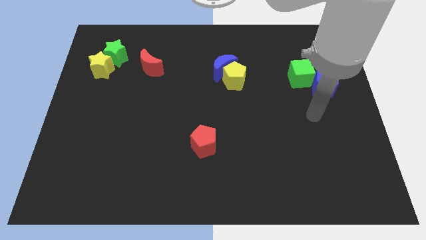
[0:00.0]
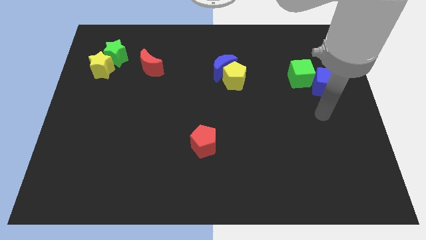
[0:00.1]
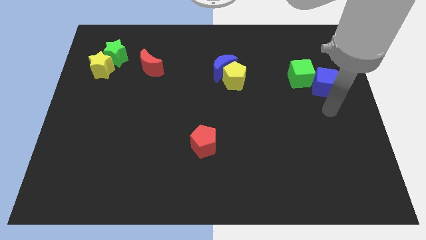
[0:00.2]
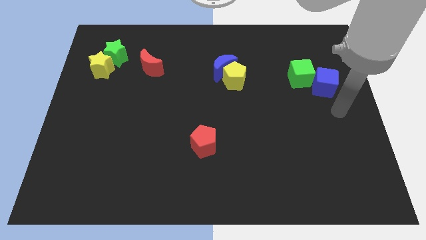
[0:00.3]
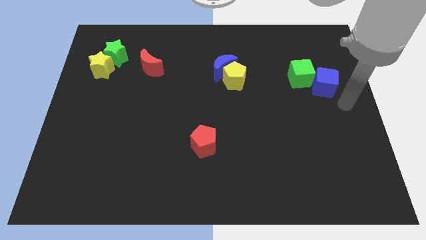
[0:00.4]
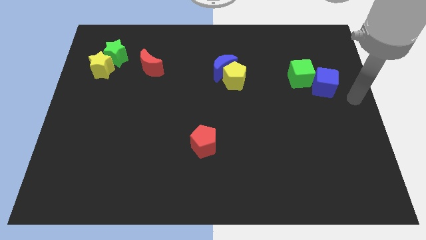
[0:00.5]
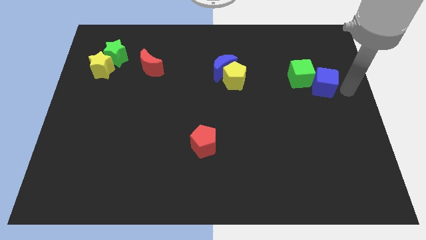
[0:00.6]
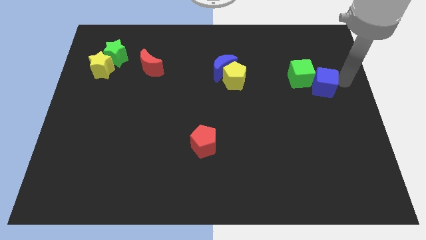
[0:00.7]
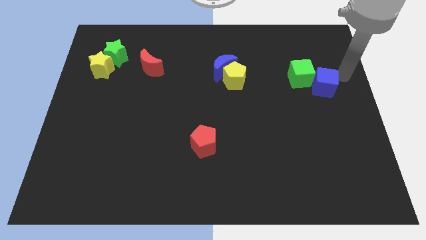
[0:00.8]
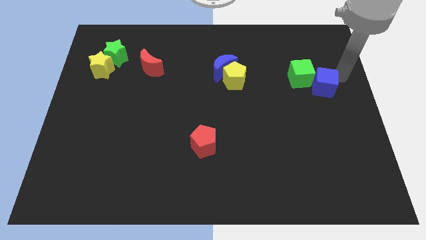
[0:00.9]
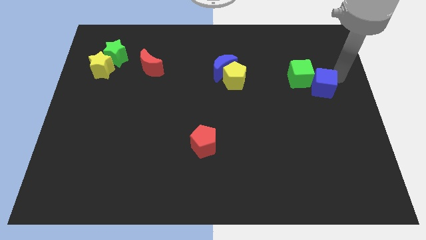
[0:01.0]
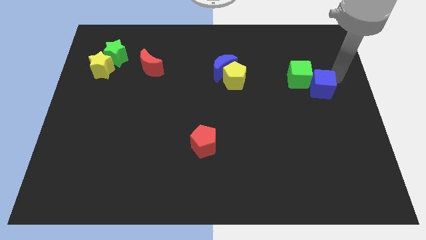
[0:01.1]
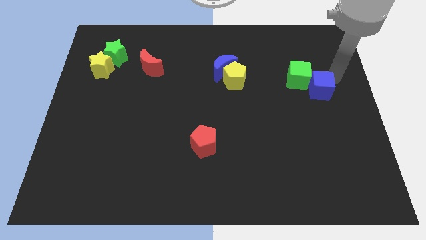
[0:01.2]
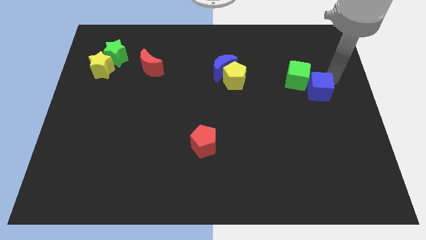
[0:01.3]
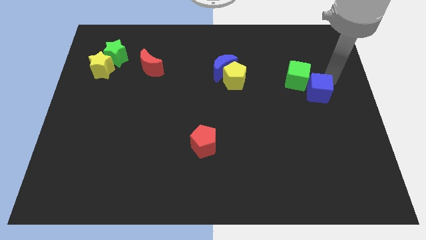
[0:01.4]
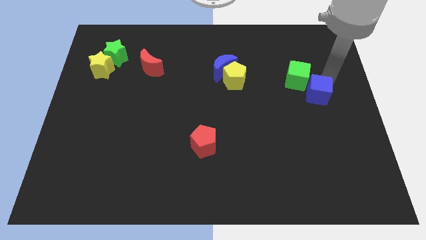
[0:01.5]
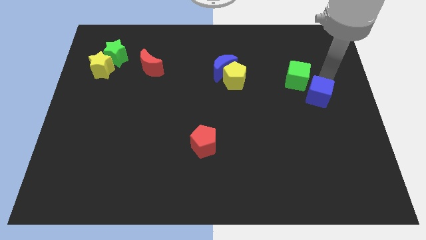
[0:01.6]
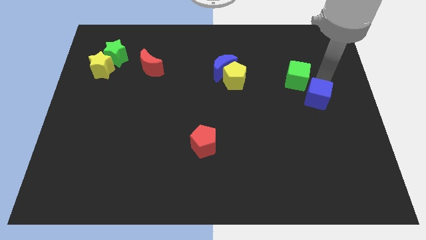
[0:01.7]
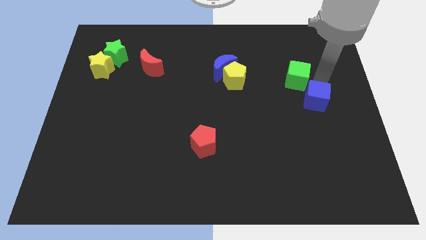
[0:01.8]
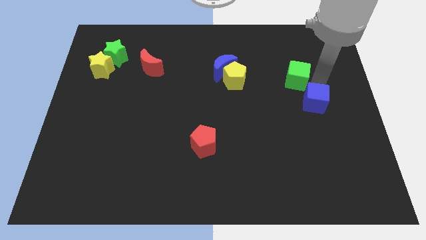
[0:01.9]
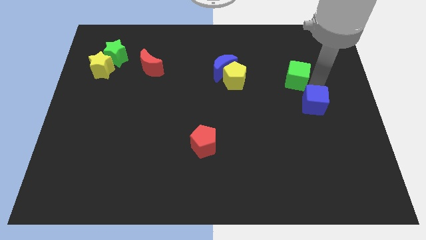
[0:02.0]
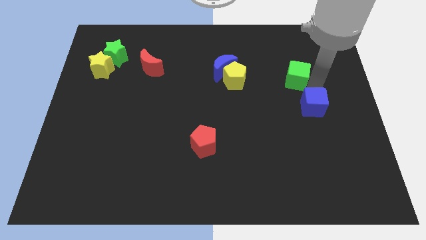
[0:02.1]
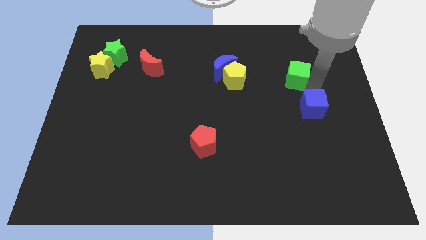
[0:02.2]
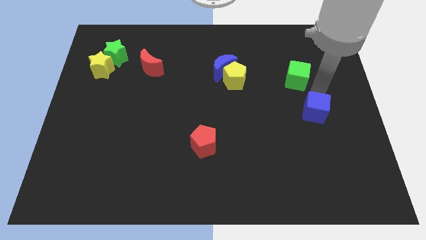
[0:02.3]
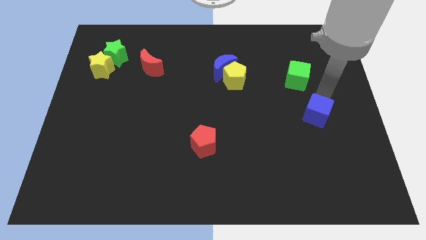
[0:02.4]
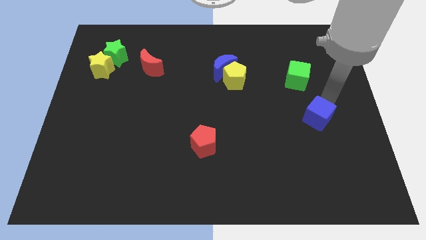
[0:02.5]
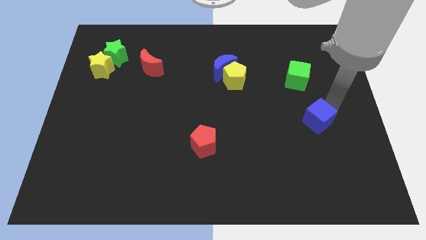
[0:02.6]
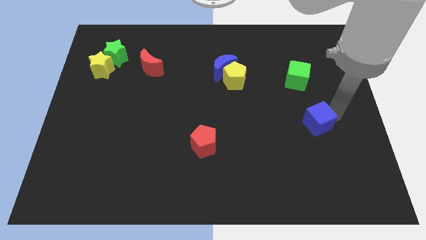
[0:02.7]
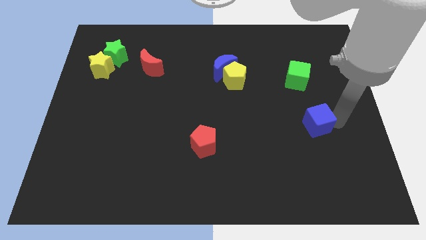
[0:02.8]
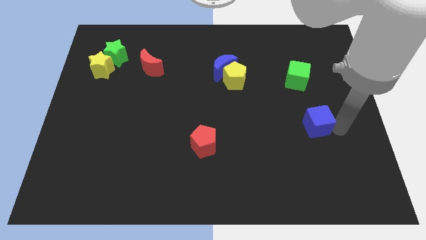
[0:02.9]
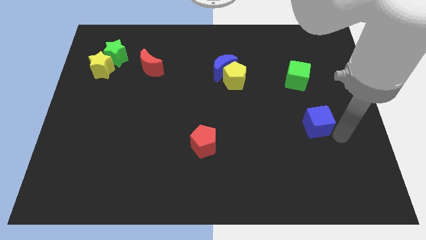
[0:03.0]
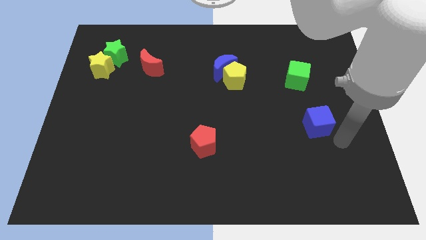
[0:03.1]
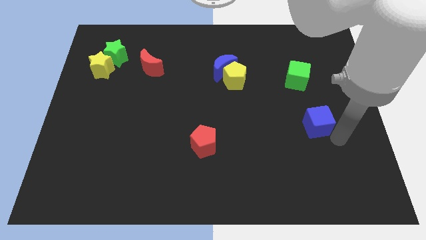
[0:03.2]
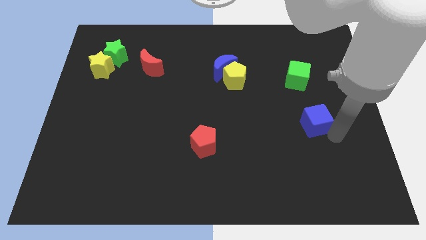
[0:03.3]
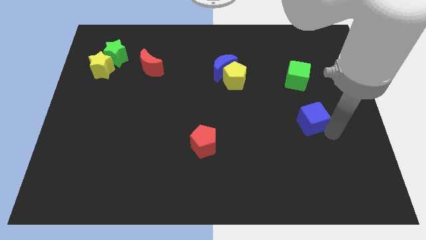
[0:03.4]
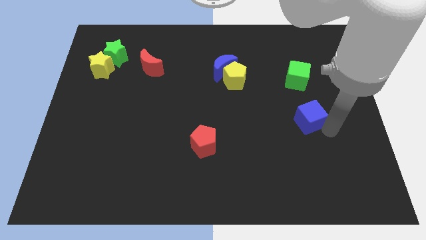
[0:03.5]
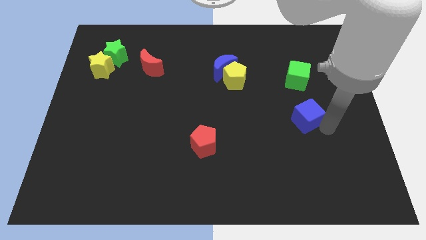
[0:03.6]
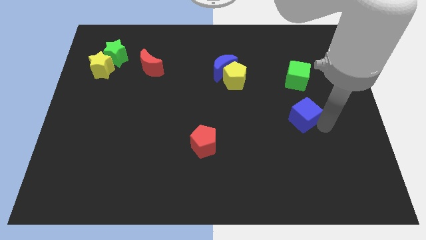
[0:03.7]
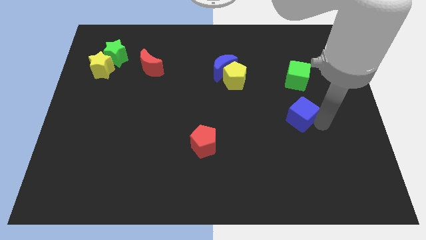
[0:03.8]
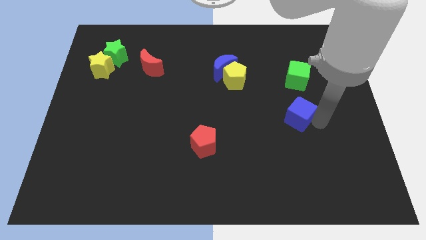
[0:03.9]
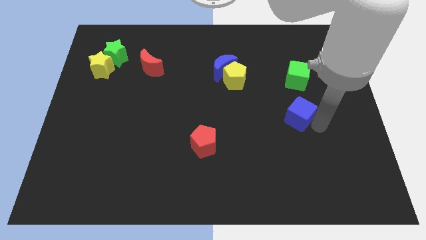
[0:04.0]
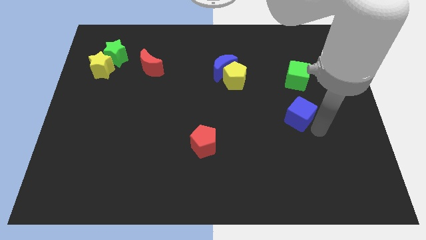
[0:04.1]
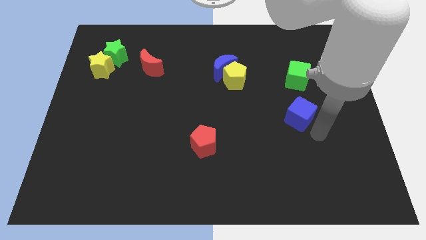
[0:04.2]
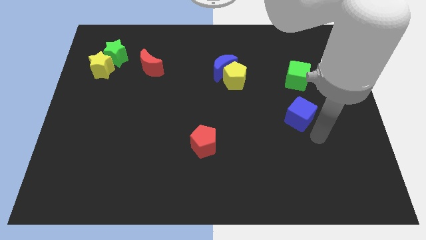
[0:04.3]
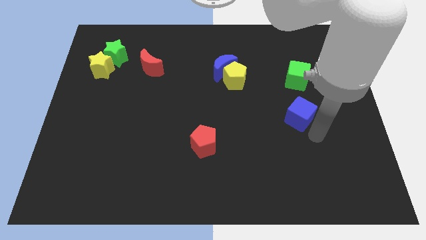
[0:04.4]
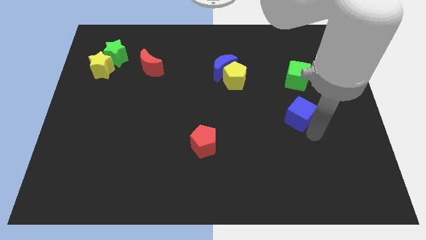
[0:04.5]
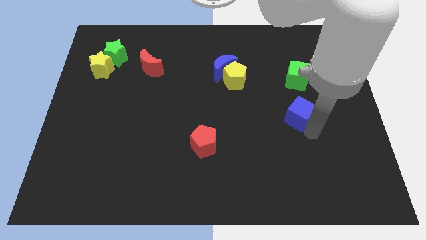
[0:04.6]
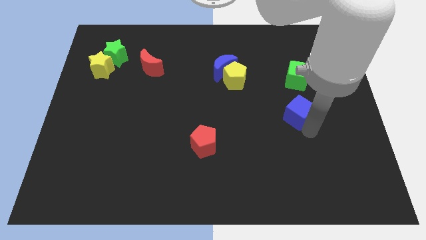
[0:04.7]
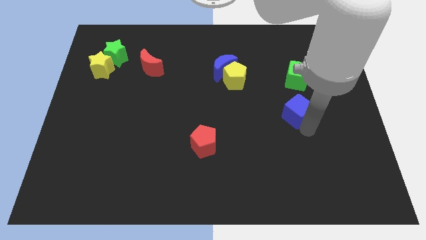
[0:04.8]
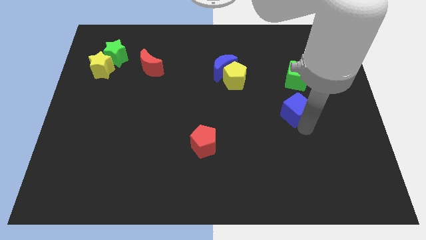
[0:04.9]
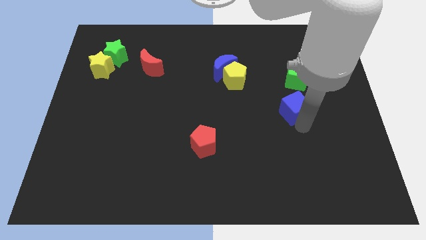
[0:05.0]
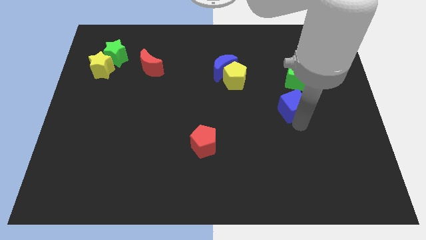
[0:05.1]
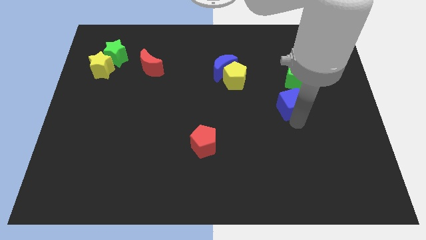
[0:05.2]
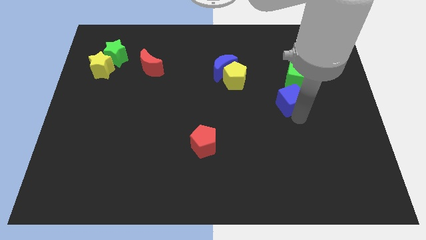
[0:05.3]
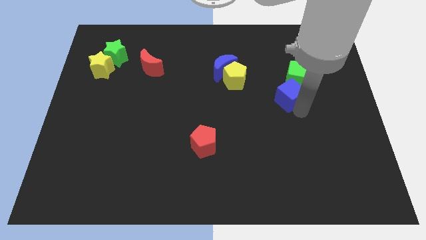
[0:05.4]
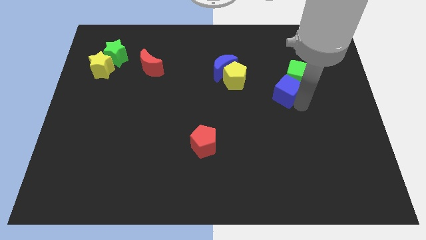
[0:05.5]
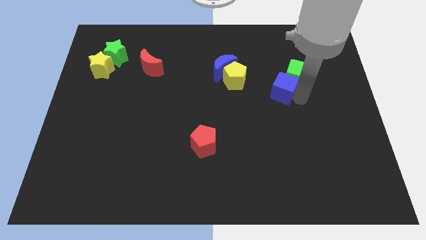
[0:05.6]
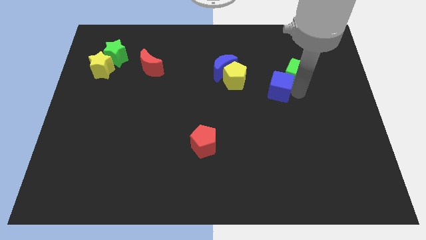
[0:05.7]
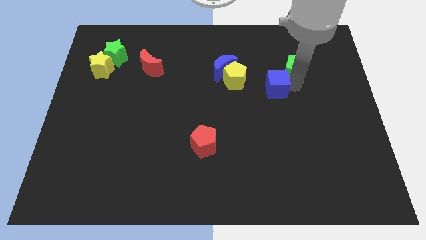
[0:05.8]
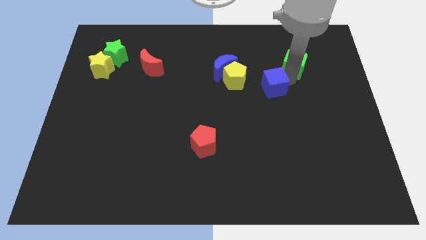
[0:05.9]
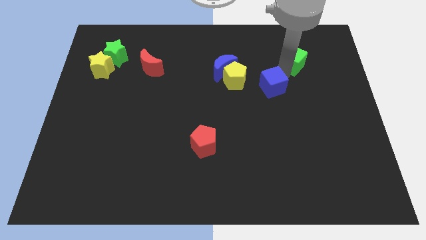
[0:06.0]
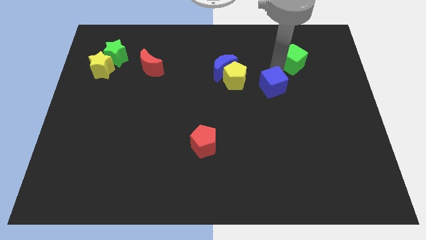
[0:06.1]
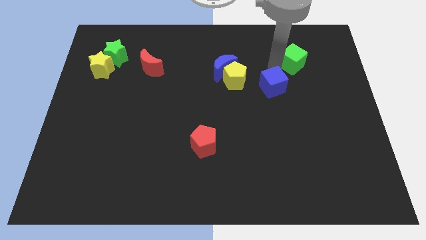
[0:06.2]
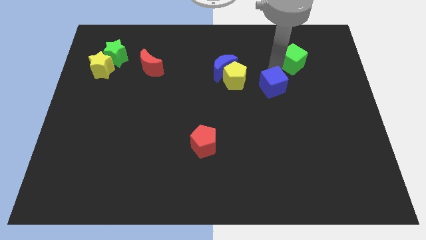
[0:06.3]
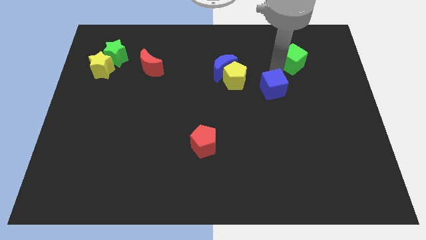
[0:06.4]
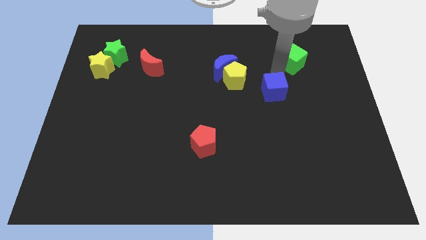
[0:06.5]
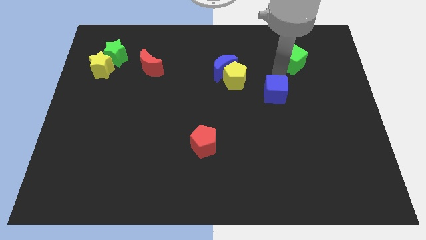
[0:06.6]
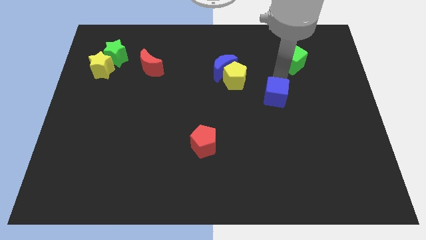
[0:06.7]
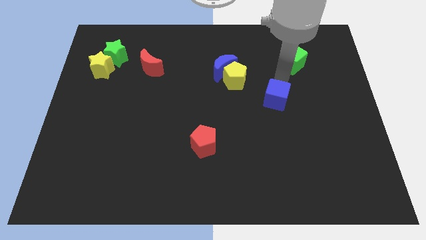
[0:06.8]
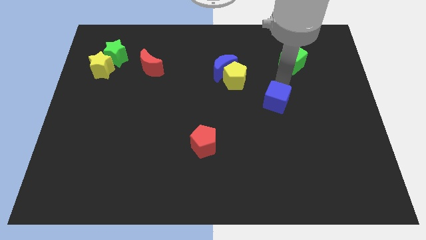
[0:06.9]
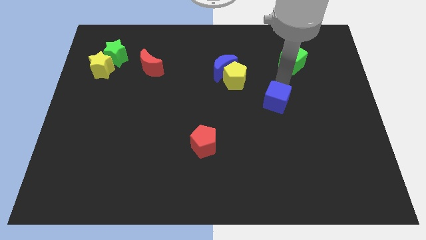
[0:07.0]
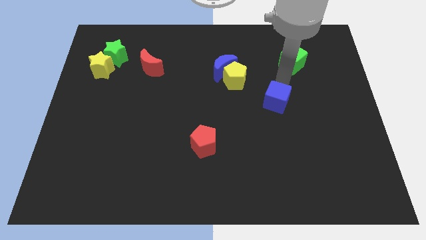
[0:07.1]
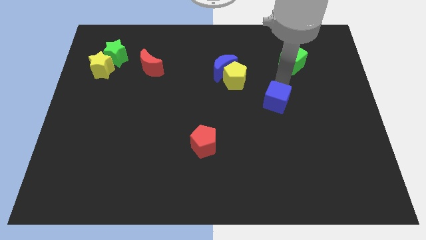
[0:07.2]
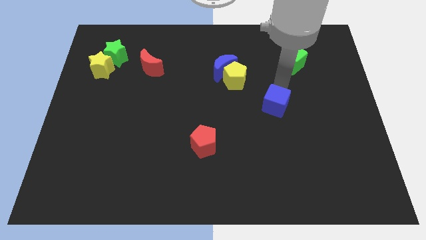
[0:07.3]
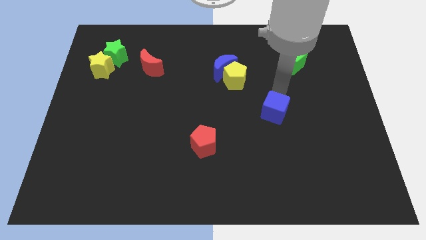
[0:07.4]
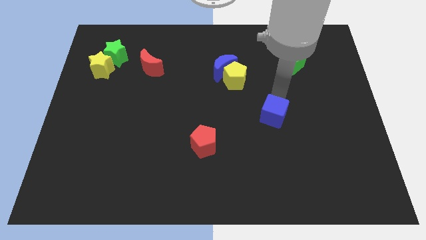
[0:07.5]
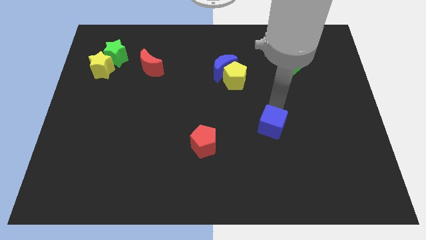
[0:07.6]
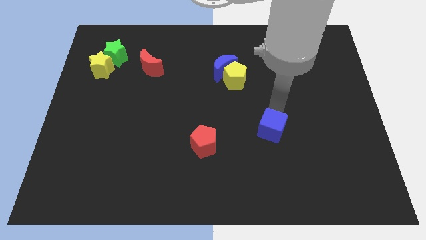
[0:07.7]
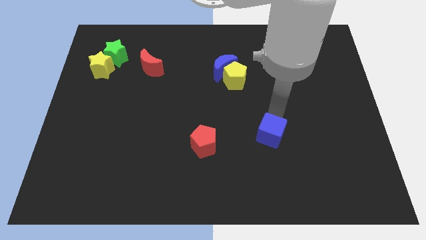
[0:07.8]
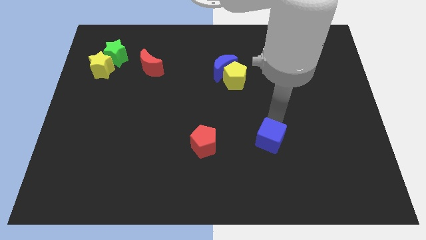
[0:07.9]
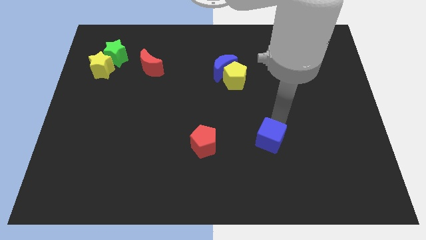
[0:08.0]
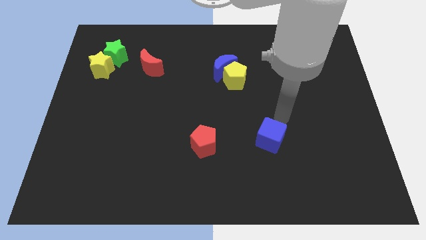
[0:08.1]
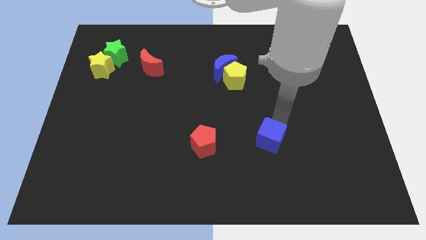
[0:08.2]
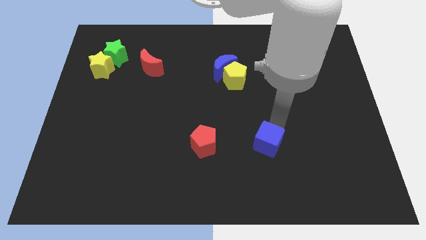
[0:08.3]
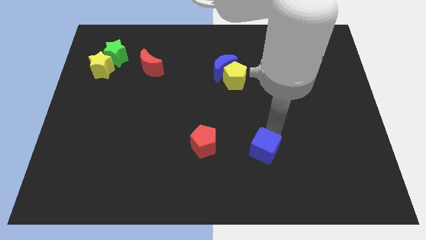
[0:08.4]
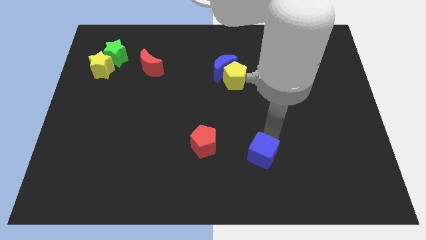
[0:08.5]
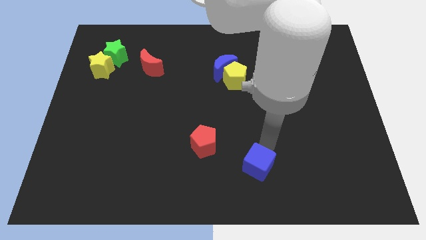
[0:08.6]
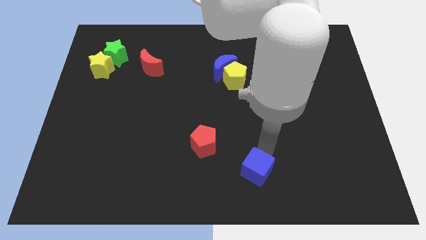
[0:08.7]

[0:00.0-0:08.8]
put the blue cube to the bottom side
